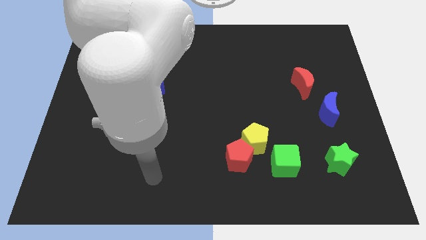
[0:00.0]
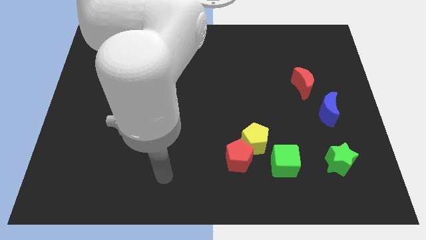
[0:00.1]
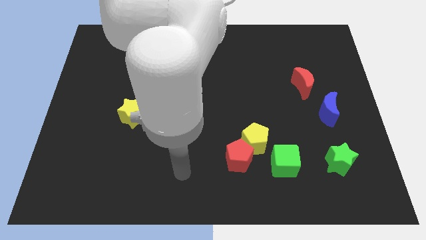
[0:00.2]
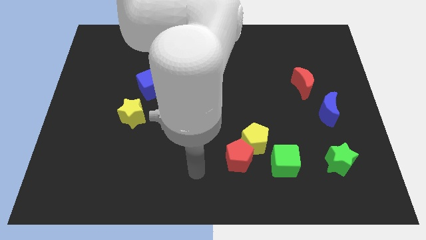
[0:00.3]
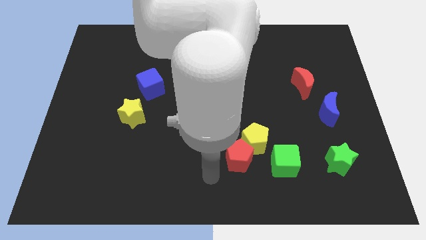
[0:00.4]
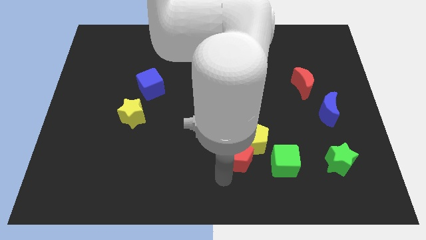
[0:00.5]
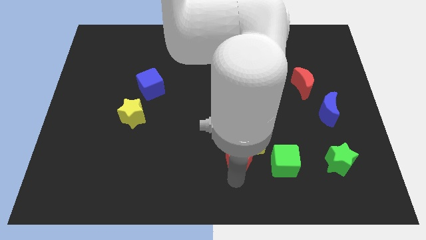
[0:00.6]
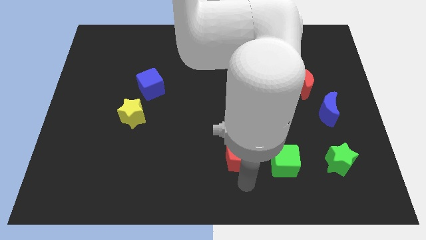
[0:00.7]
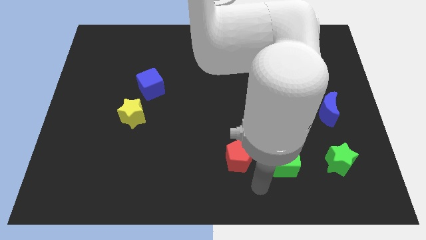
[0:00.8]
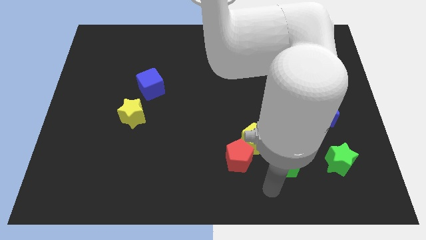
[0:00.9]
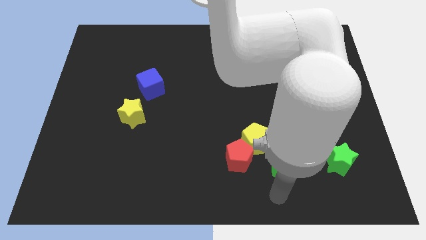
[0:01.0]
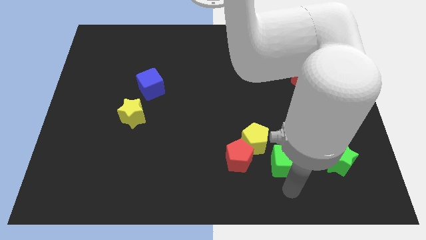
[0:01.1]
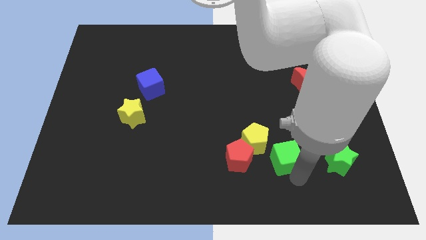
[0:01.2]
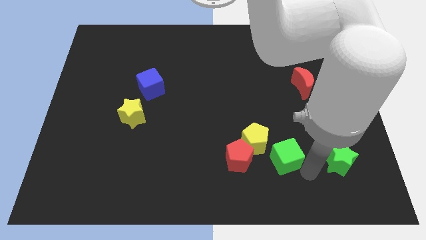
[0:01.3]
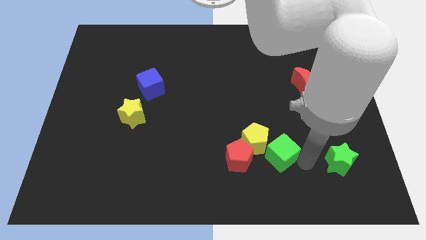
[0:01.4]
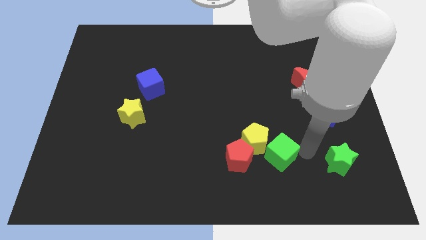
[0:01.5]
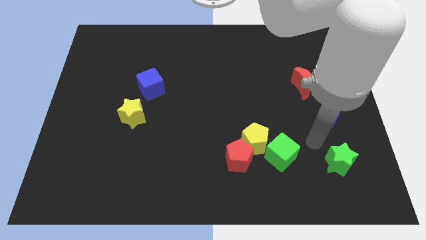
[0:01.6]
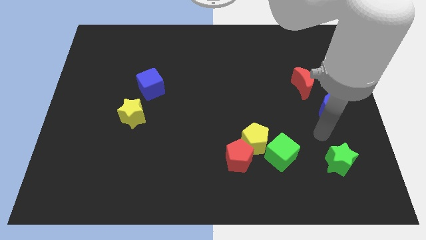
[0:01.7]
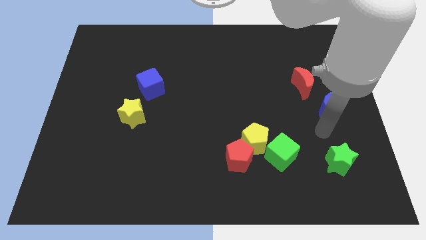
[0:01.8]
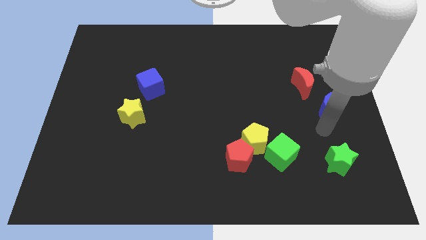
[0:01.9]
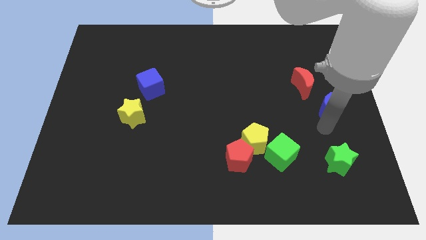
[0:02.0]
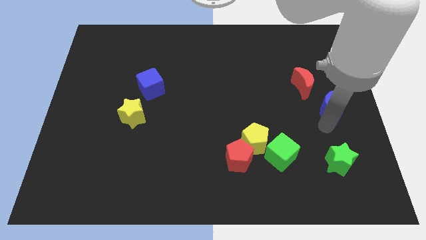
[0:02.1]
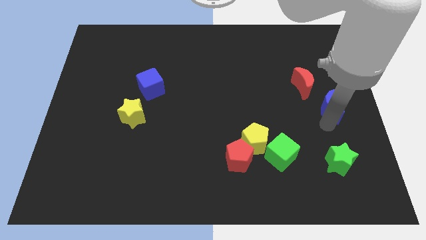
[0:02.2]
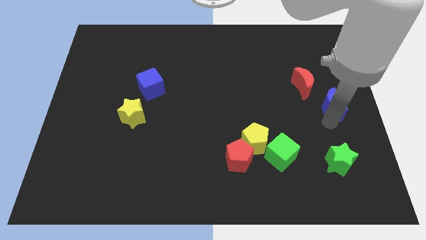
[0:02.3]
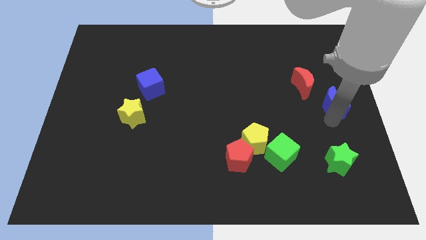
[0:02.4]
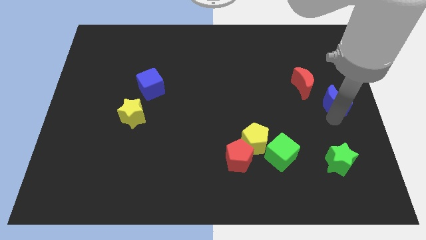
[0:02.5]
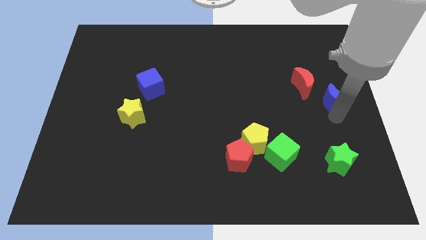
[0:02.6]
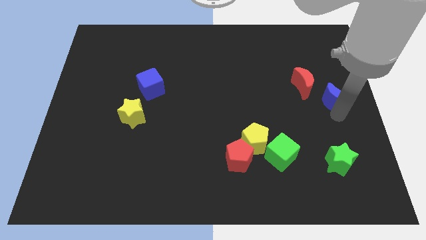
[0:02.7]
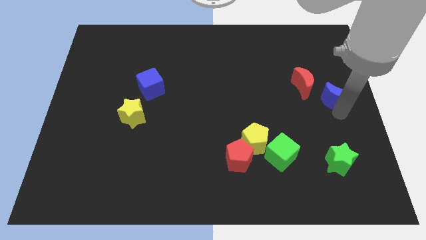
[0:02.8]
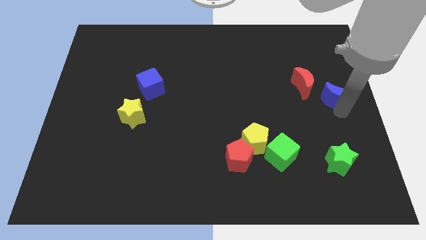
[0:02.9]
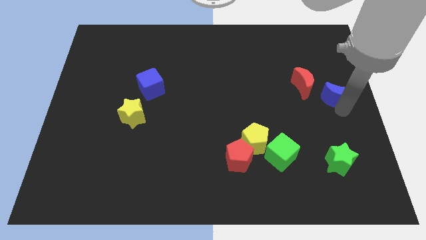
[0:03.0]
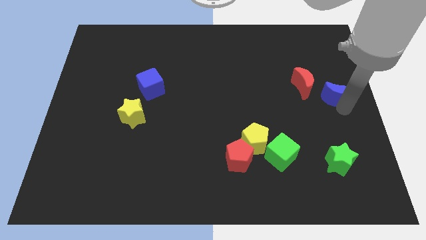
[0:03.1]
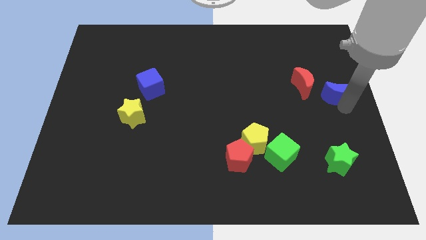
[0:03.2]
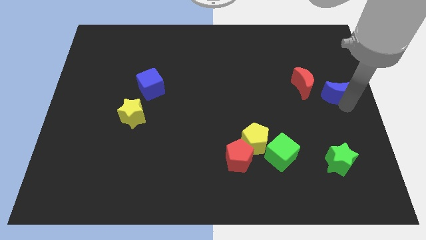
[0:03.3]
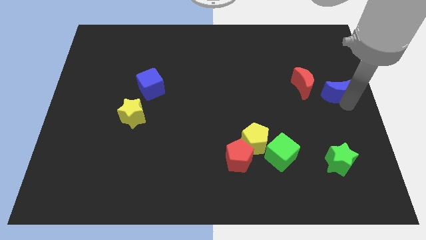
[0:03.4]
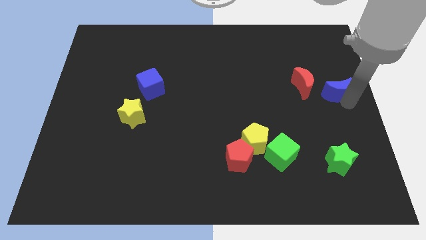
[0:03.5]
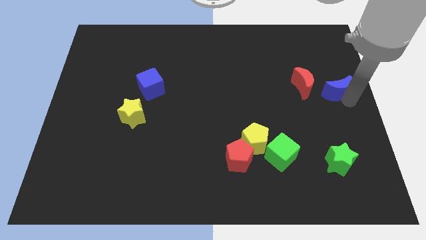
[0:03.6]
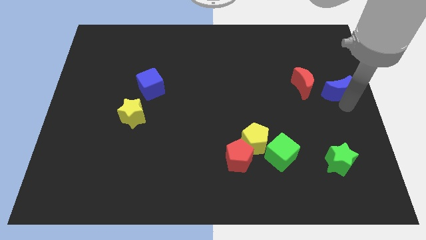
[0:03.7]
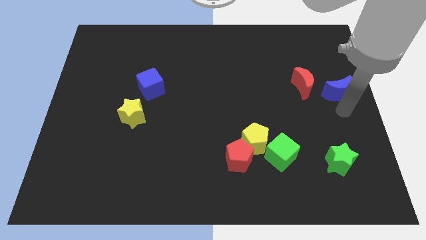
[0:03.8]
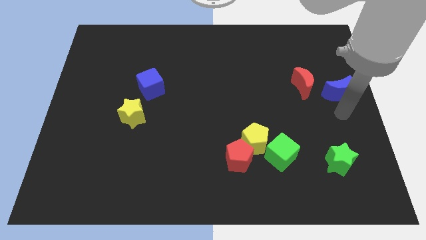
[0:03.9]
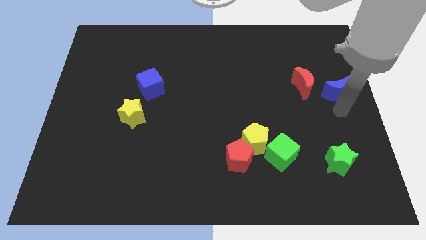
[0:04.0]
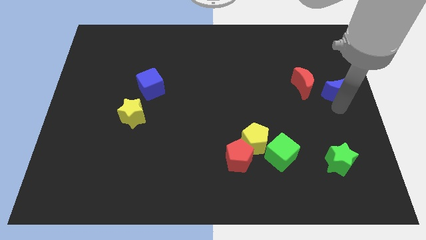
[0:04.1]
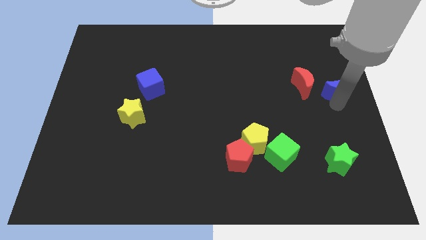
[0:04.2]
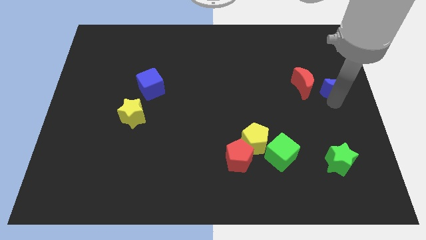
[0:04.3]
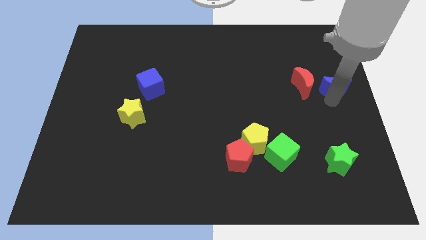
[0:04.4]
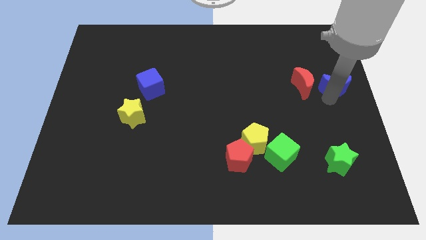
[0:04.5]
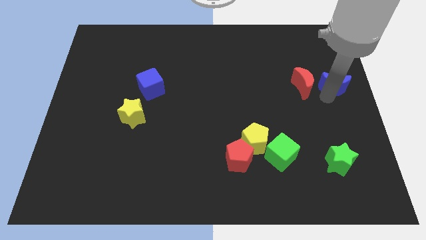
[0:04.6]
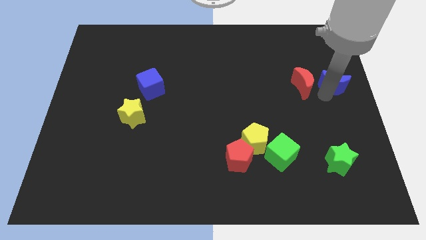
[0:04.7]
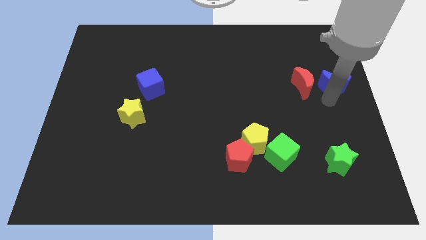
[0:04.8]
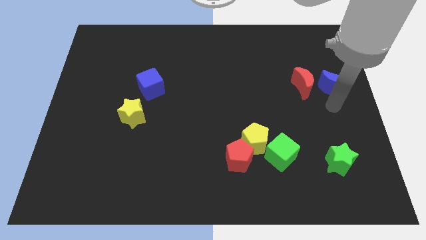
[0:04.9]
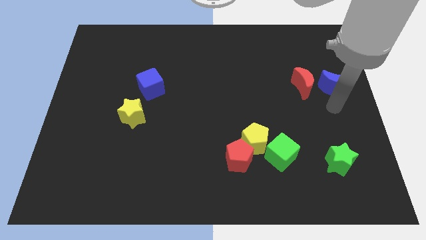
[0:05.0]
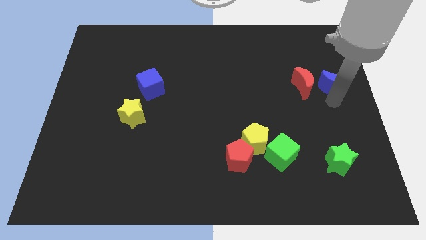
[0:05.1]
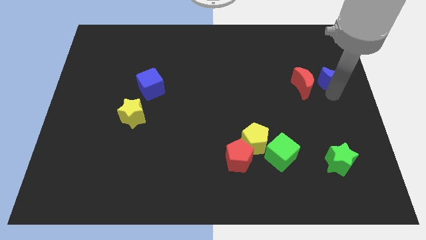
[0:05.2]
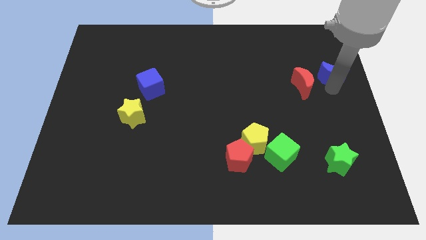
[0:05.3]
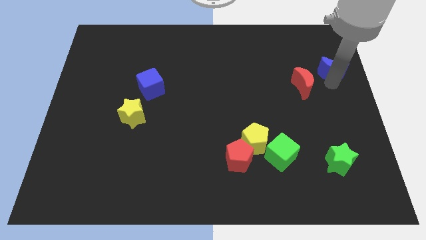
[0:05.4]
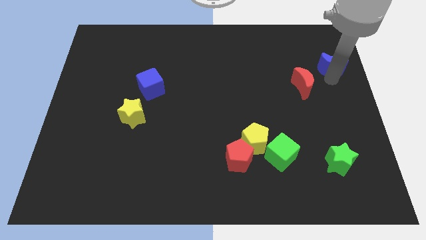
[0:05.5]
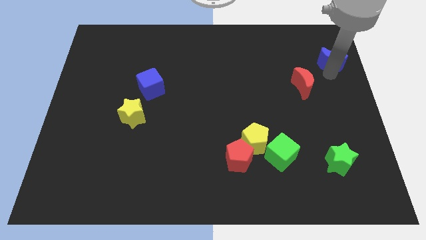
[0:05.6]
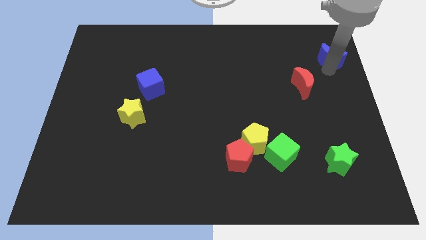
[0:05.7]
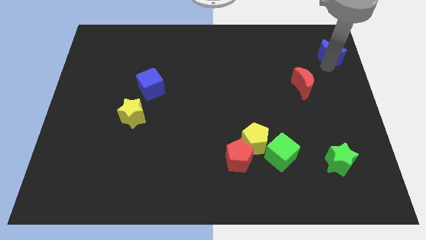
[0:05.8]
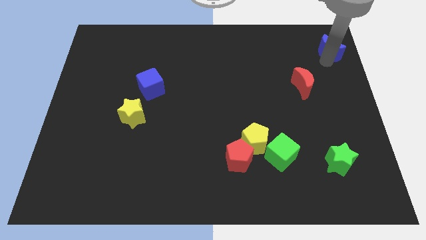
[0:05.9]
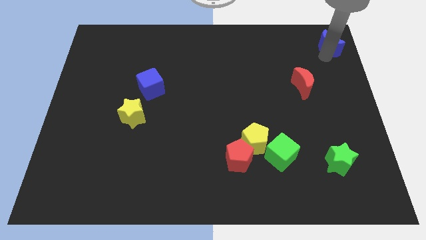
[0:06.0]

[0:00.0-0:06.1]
move the blue moon to the top right

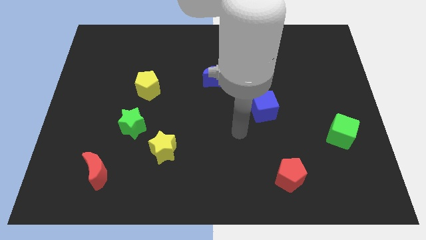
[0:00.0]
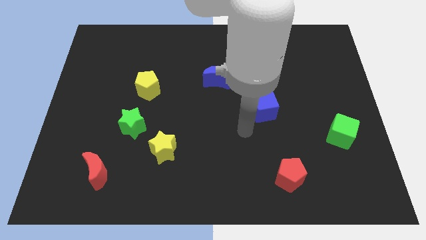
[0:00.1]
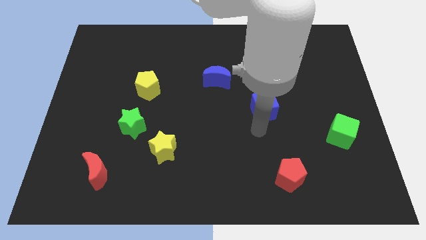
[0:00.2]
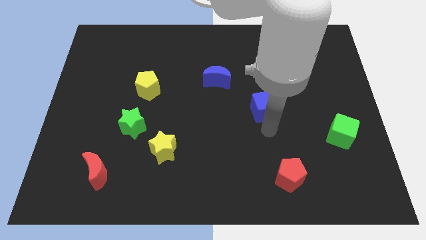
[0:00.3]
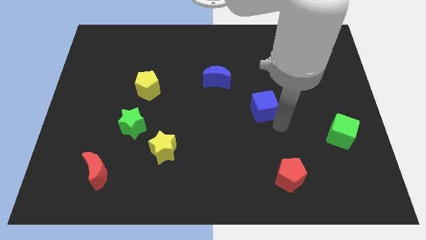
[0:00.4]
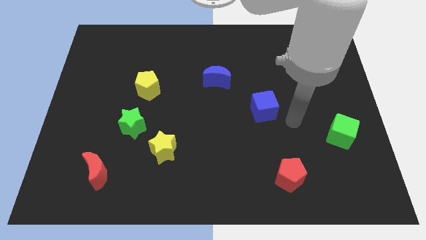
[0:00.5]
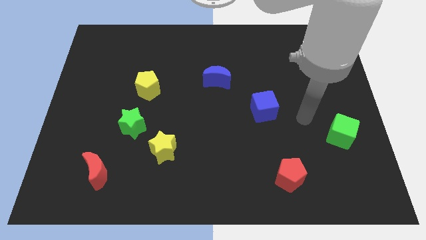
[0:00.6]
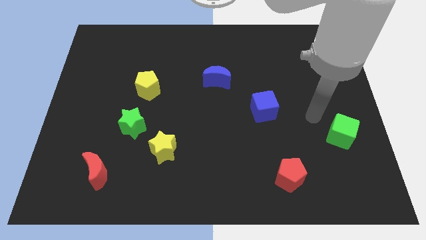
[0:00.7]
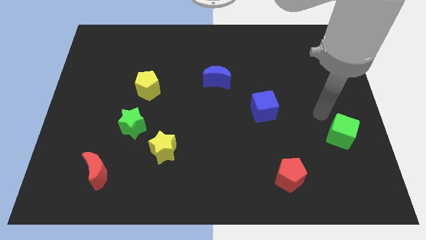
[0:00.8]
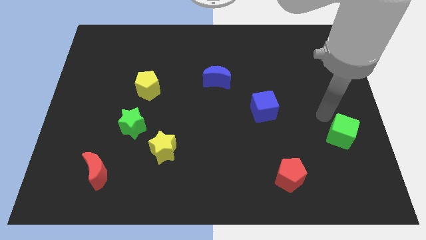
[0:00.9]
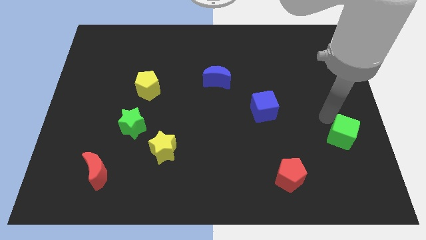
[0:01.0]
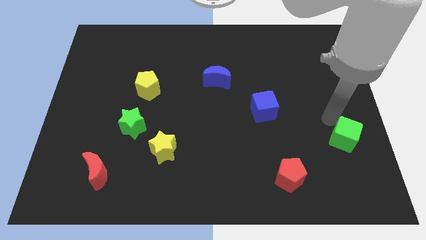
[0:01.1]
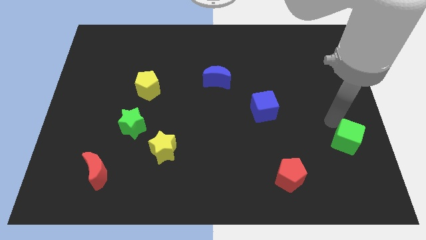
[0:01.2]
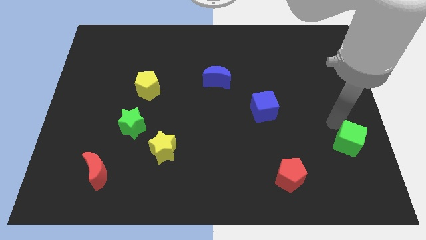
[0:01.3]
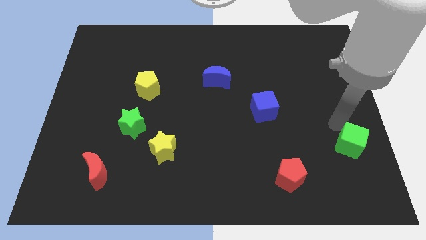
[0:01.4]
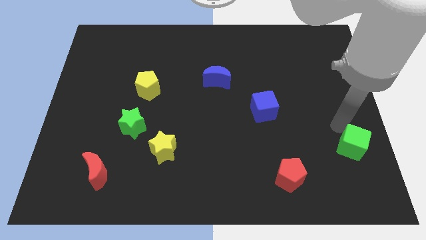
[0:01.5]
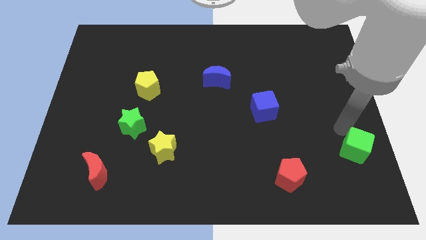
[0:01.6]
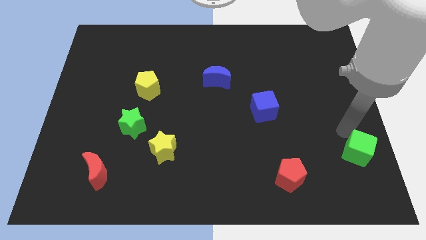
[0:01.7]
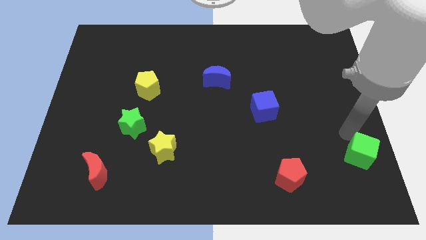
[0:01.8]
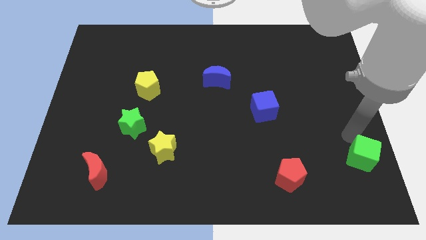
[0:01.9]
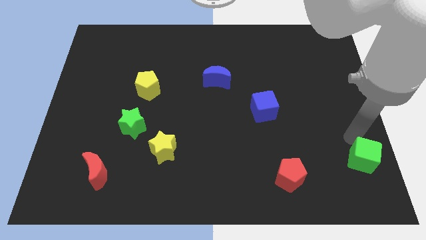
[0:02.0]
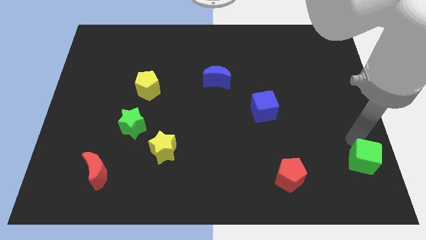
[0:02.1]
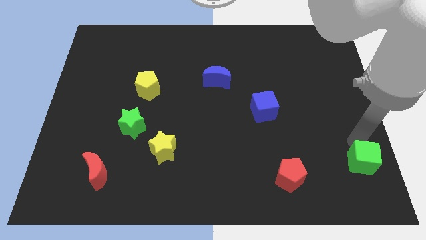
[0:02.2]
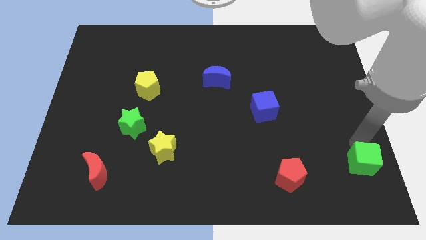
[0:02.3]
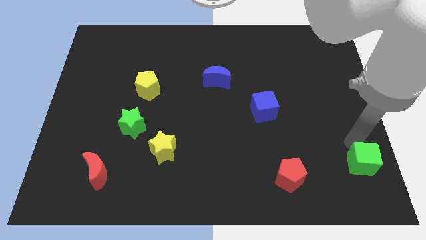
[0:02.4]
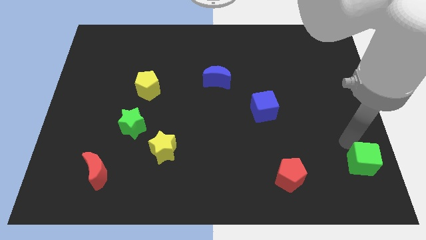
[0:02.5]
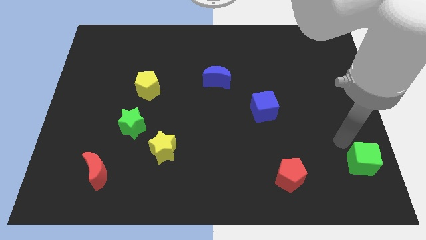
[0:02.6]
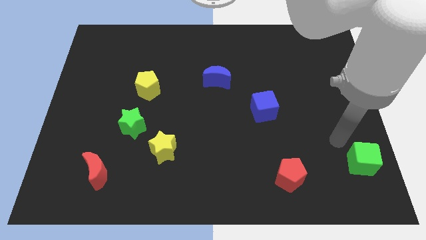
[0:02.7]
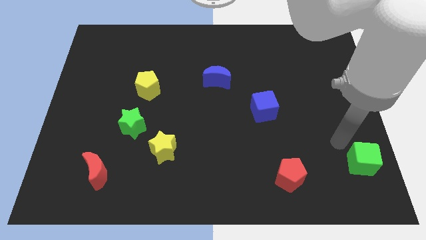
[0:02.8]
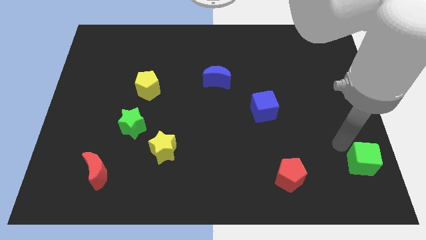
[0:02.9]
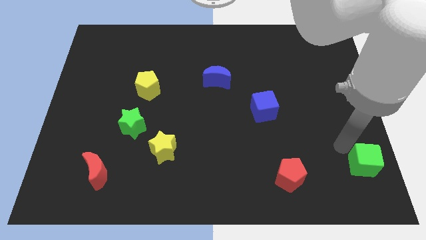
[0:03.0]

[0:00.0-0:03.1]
push the green cube to the bottom right
